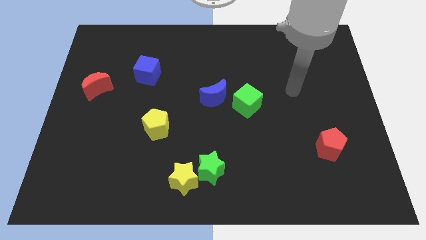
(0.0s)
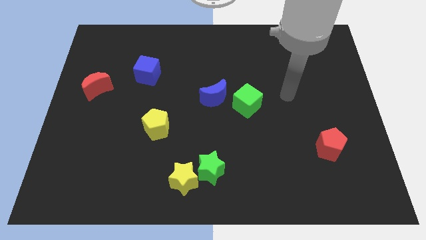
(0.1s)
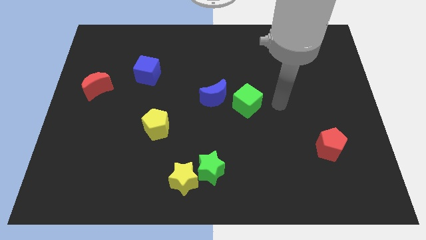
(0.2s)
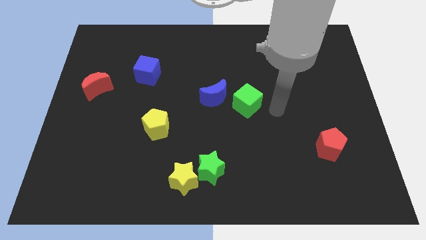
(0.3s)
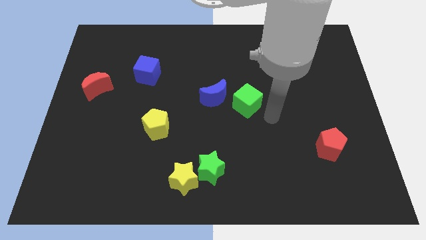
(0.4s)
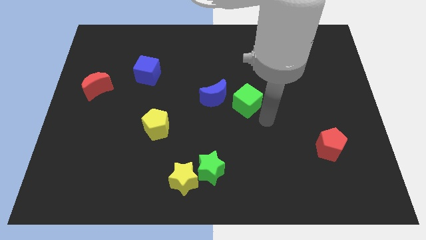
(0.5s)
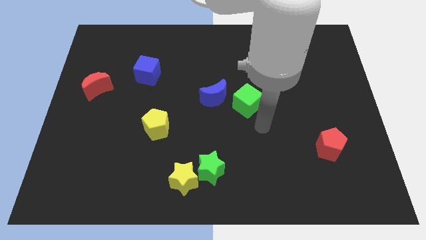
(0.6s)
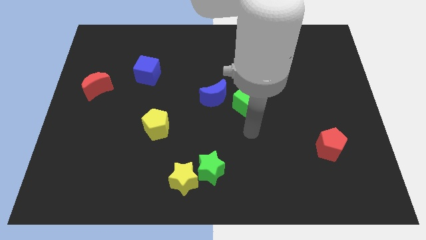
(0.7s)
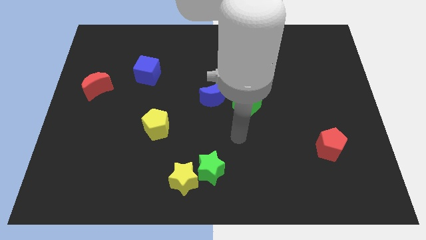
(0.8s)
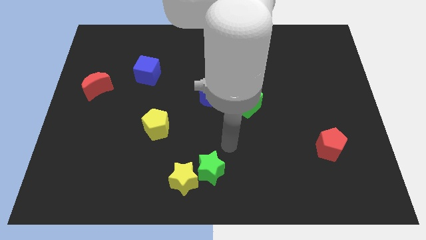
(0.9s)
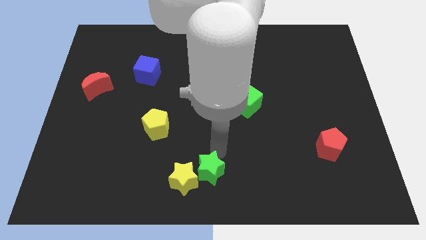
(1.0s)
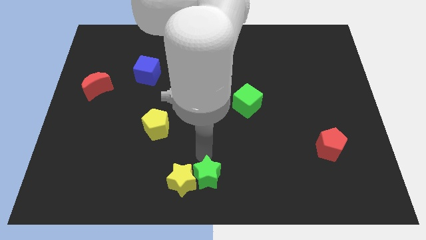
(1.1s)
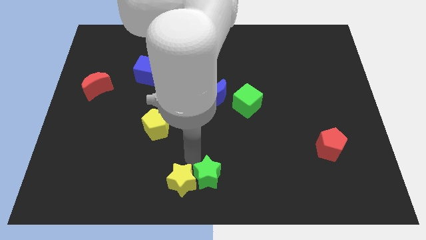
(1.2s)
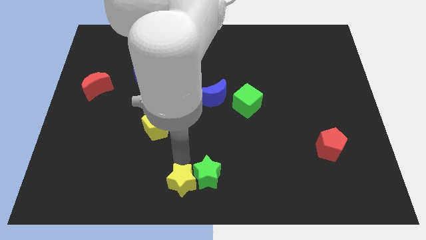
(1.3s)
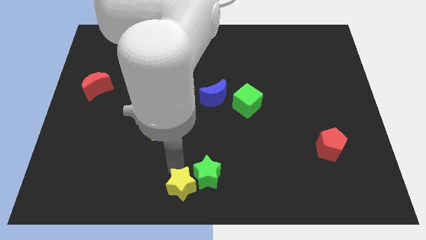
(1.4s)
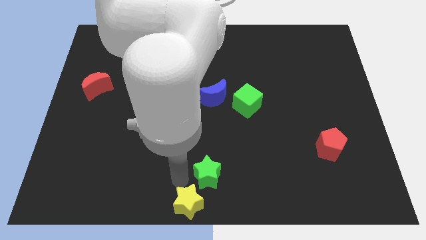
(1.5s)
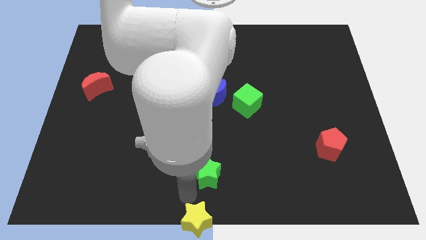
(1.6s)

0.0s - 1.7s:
pull the green star apart from the yellow star

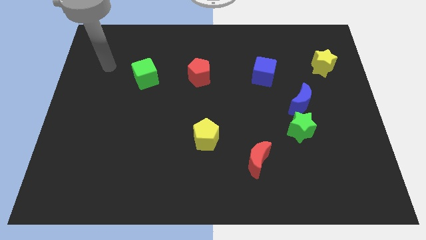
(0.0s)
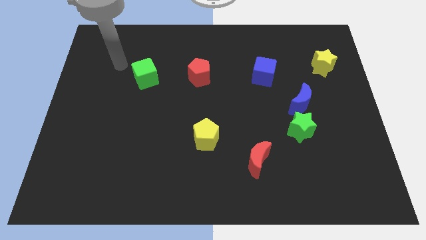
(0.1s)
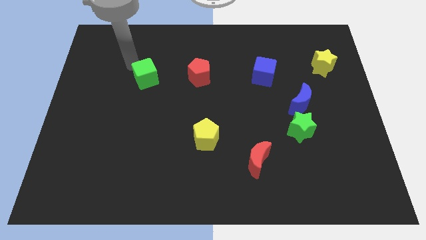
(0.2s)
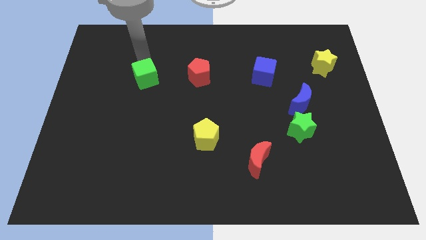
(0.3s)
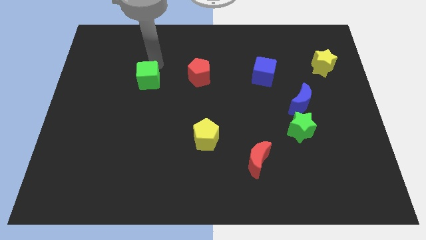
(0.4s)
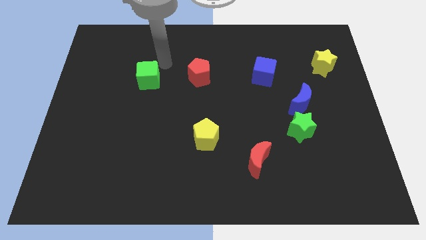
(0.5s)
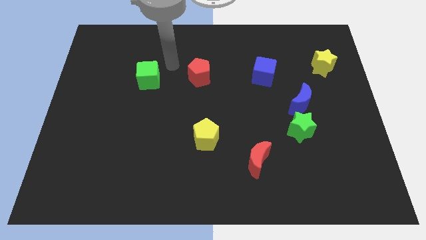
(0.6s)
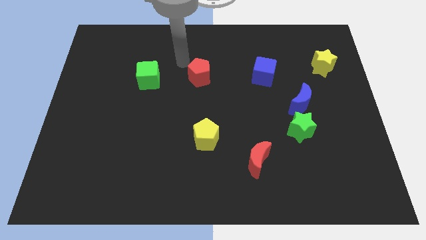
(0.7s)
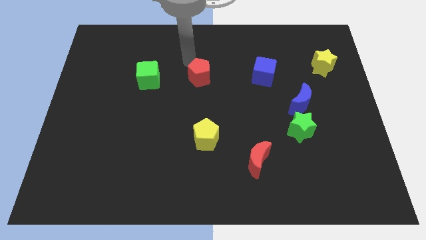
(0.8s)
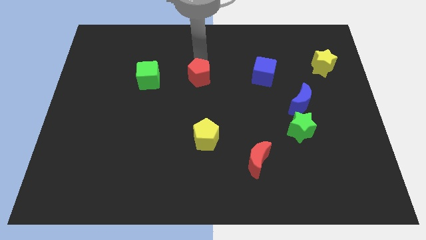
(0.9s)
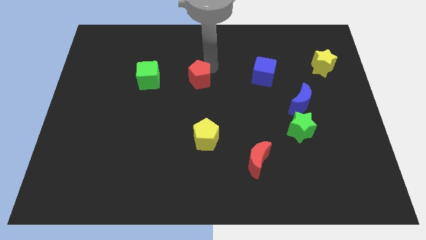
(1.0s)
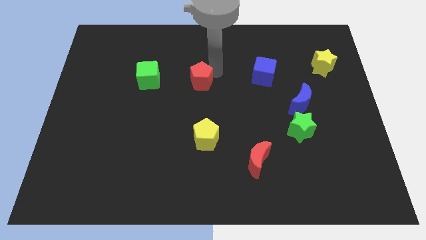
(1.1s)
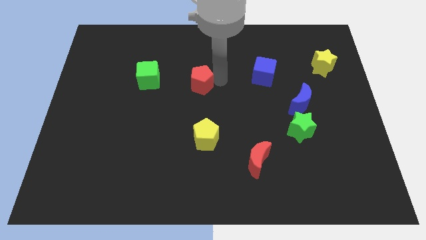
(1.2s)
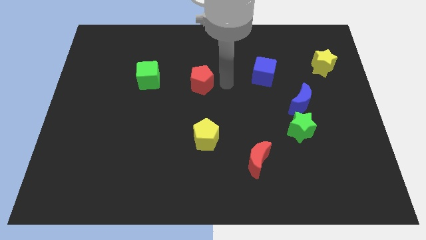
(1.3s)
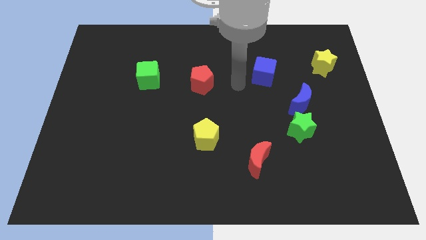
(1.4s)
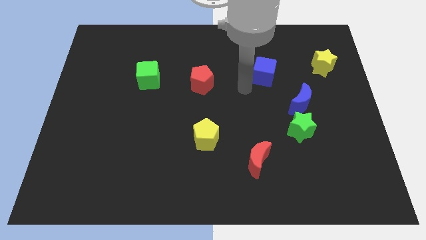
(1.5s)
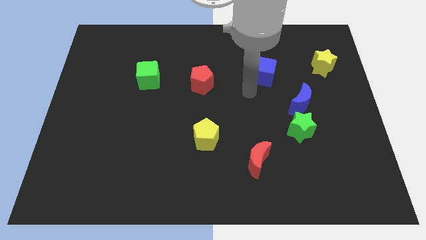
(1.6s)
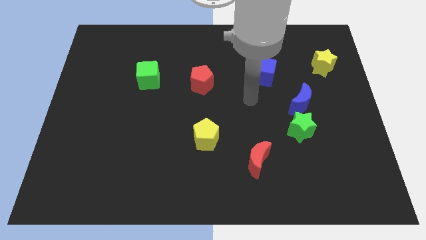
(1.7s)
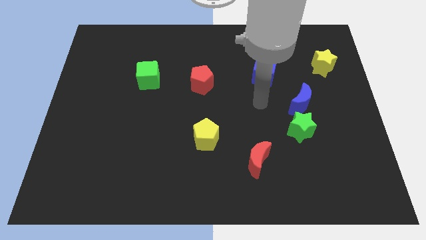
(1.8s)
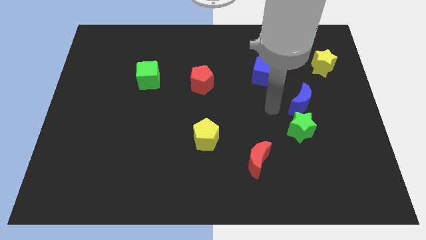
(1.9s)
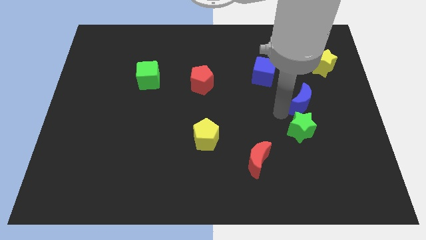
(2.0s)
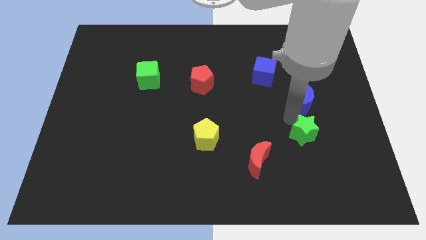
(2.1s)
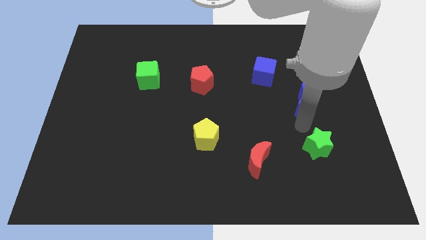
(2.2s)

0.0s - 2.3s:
move the blue moon away from the green star

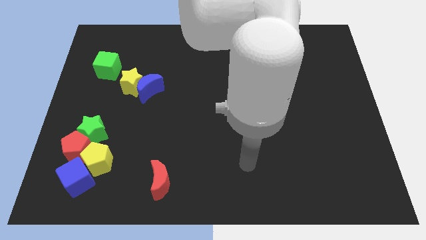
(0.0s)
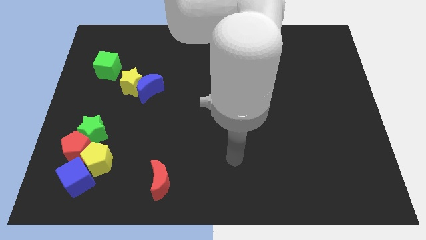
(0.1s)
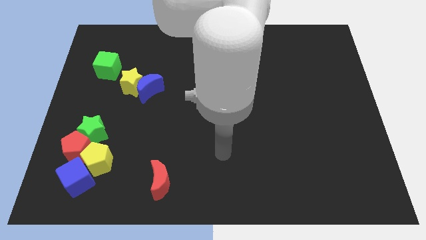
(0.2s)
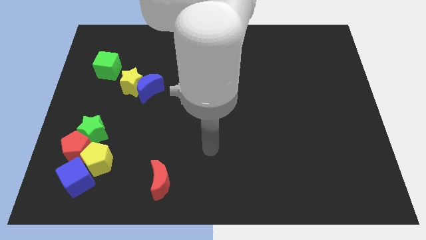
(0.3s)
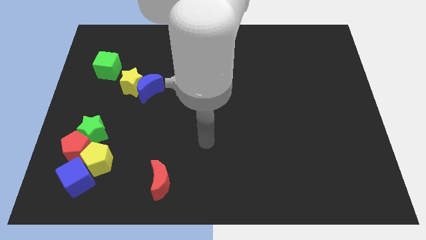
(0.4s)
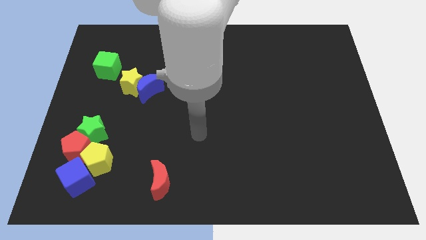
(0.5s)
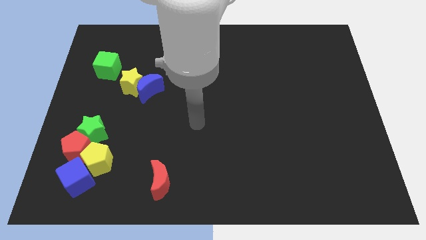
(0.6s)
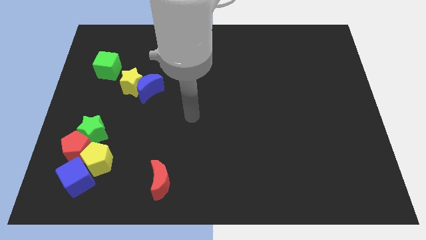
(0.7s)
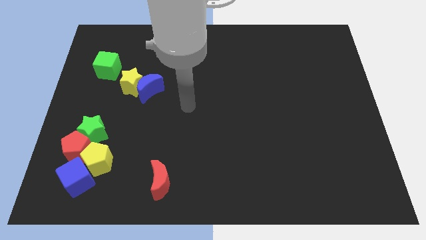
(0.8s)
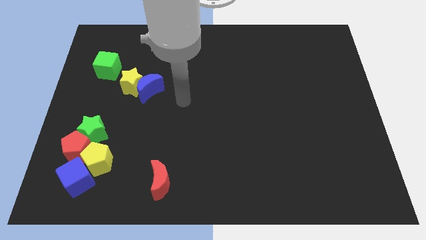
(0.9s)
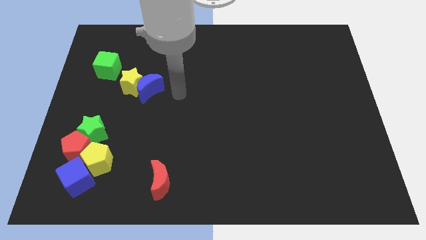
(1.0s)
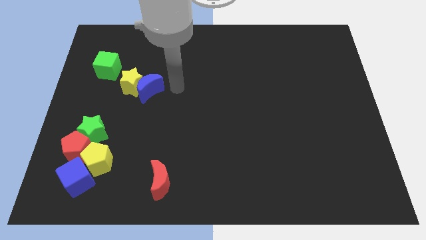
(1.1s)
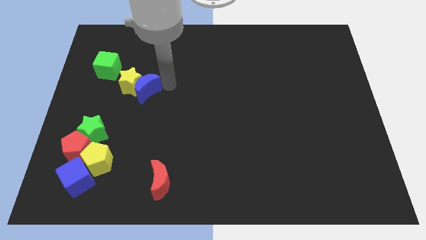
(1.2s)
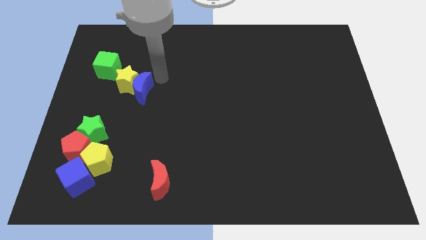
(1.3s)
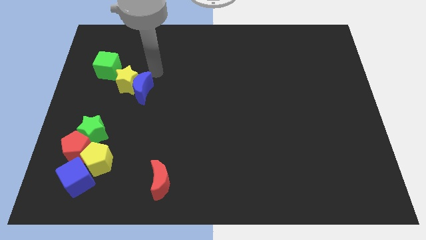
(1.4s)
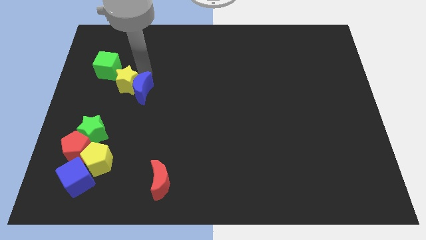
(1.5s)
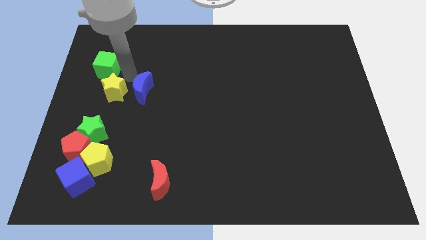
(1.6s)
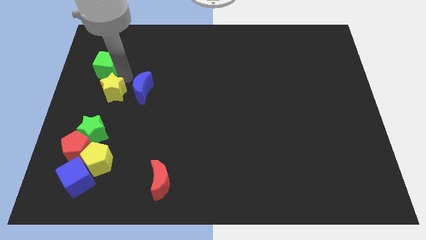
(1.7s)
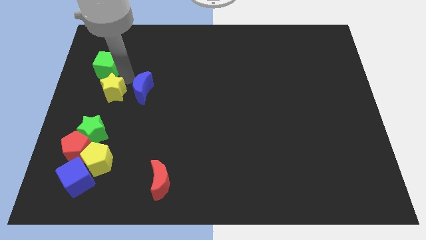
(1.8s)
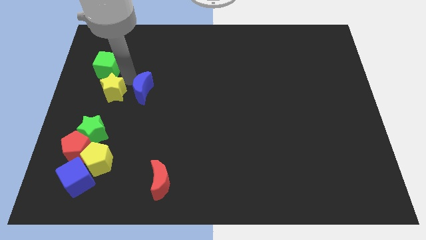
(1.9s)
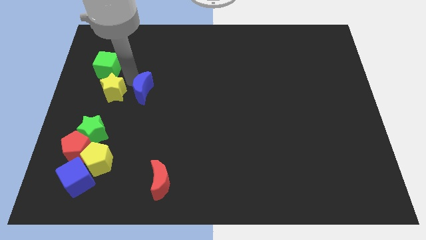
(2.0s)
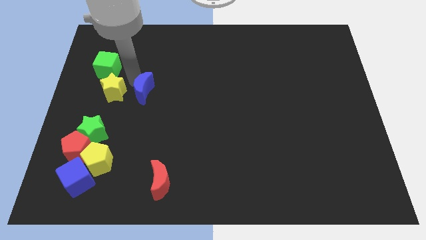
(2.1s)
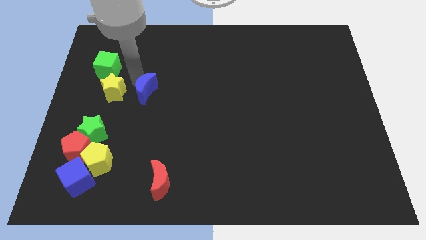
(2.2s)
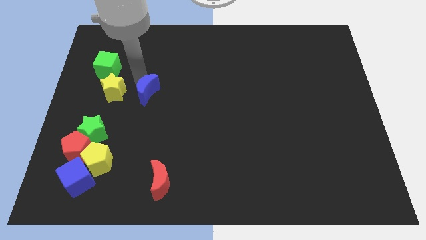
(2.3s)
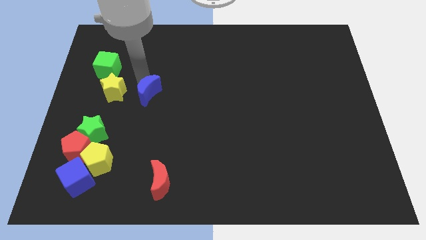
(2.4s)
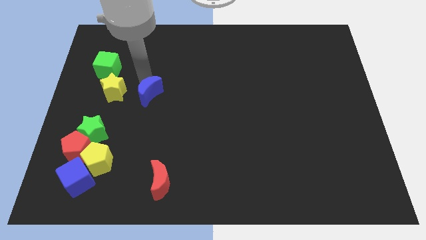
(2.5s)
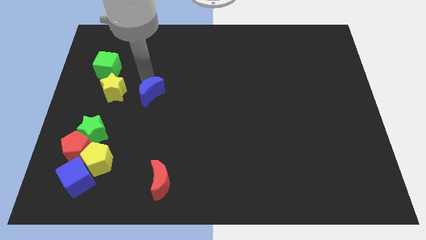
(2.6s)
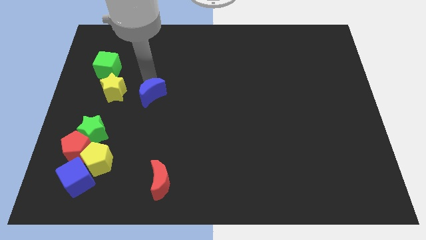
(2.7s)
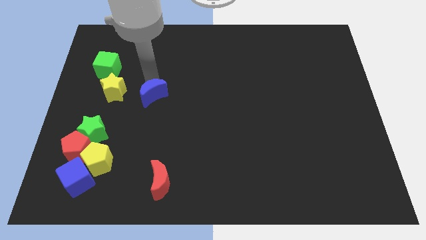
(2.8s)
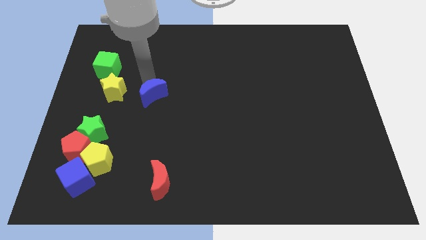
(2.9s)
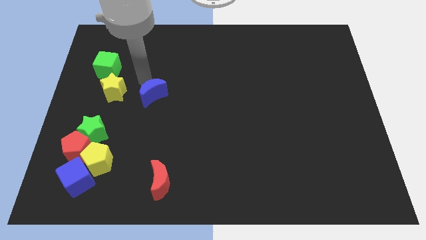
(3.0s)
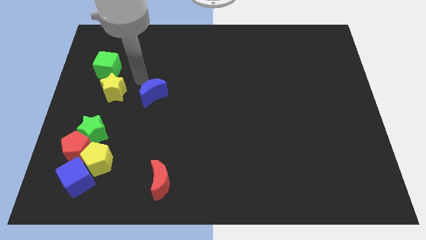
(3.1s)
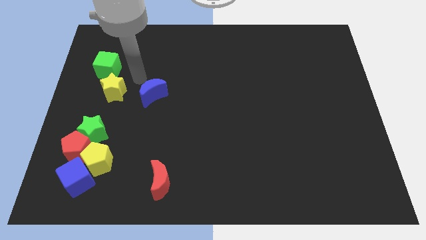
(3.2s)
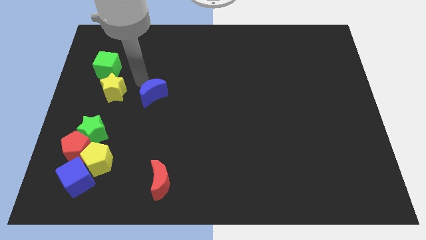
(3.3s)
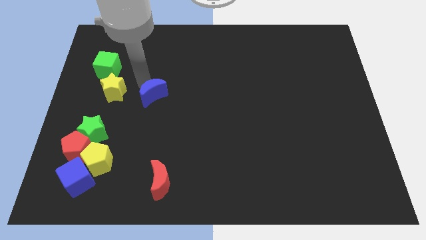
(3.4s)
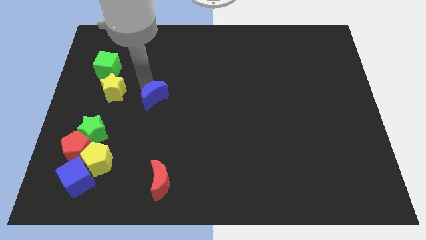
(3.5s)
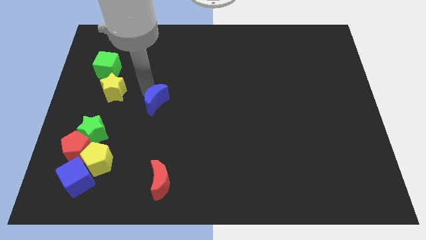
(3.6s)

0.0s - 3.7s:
separate the blue moon from the yellow star

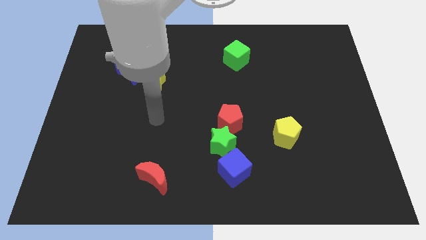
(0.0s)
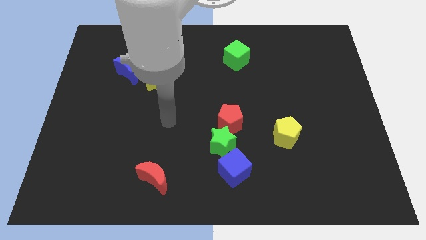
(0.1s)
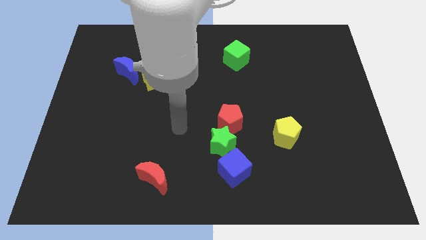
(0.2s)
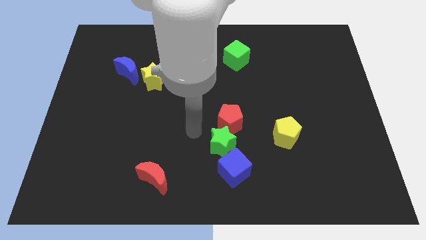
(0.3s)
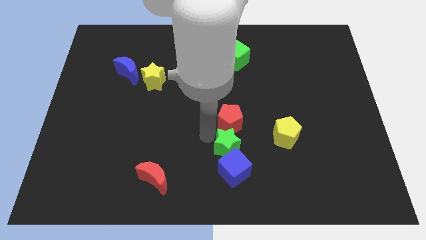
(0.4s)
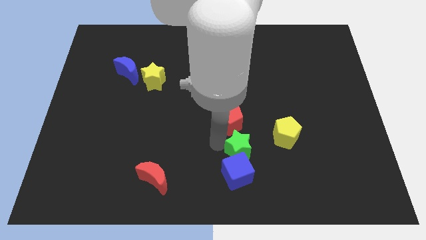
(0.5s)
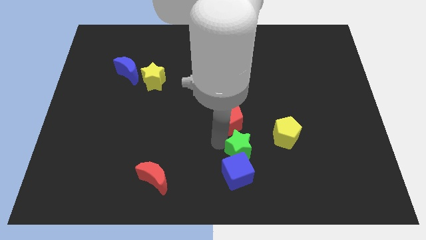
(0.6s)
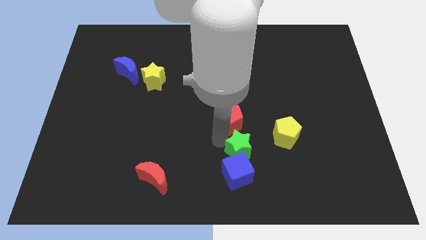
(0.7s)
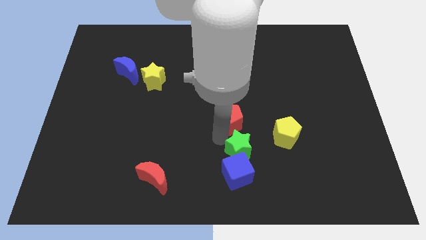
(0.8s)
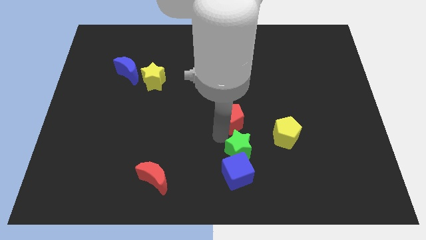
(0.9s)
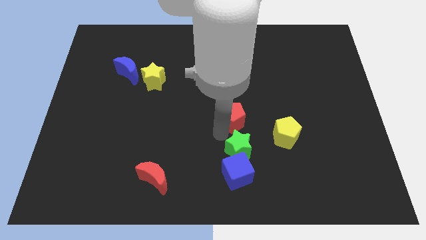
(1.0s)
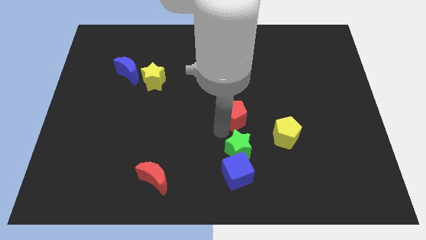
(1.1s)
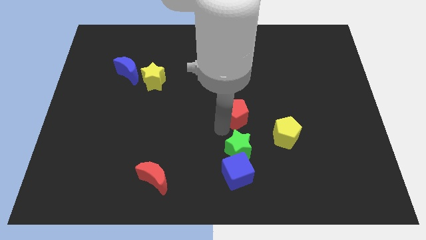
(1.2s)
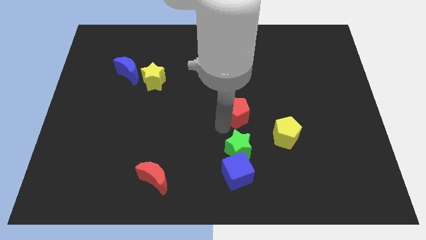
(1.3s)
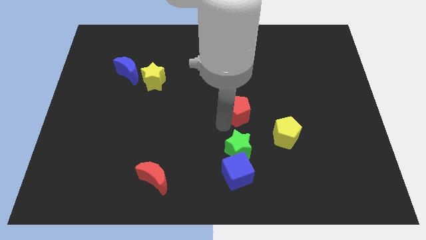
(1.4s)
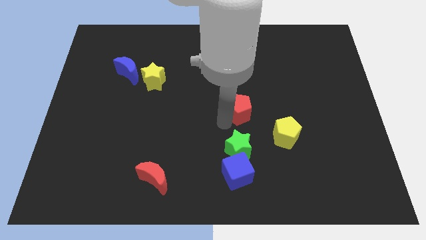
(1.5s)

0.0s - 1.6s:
separate the red pentagon from the green star

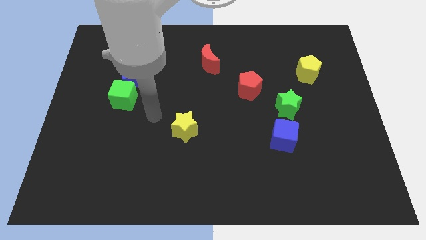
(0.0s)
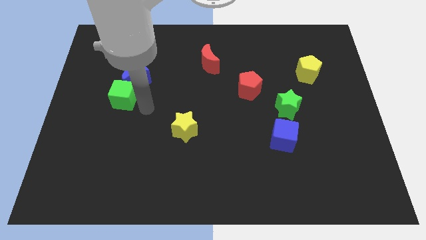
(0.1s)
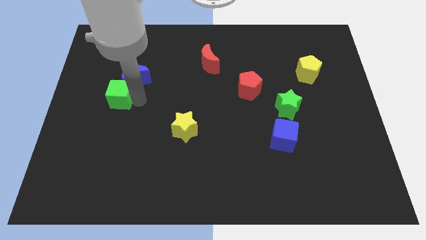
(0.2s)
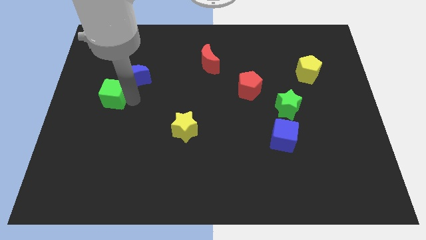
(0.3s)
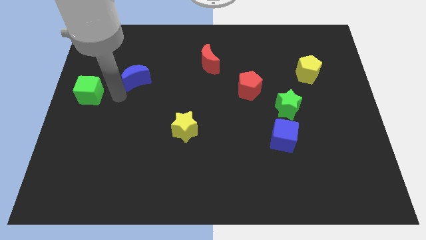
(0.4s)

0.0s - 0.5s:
separate the blue moon from the green cube
